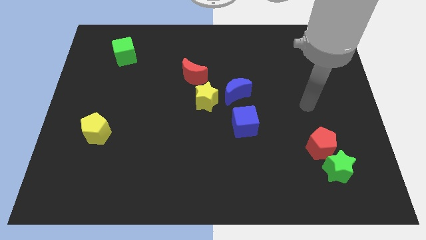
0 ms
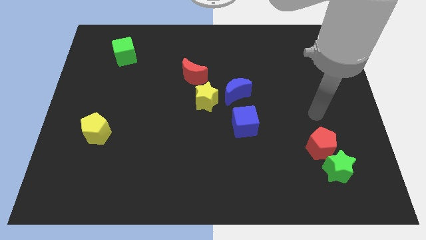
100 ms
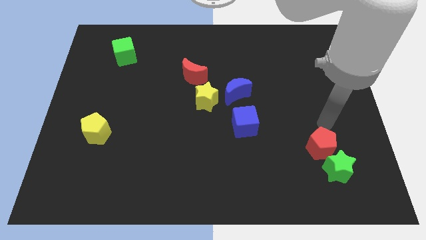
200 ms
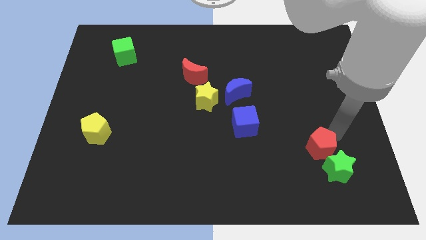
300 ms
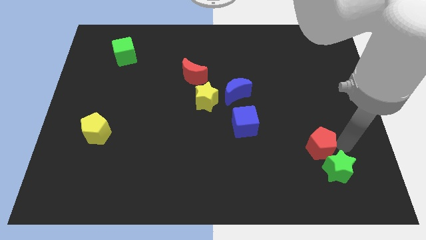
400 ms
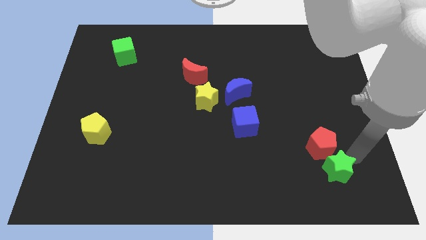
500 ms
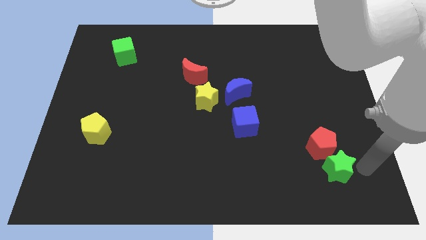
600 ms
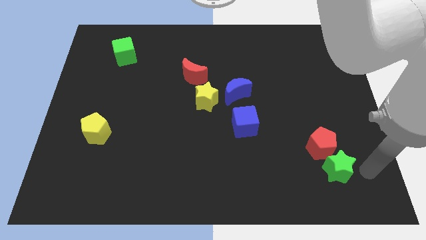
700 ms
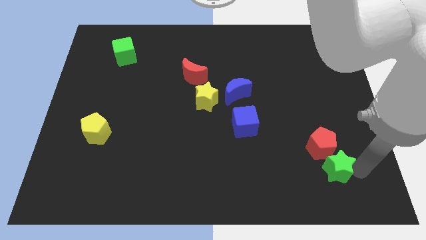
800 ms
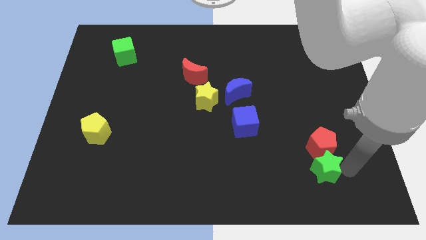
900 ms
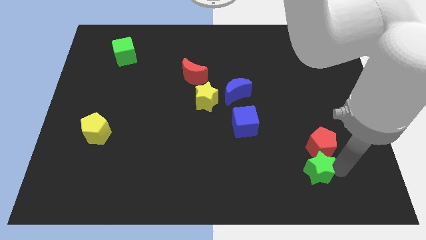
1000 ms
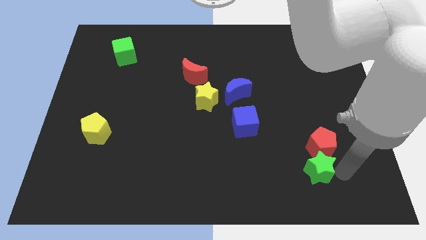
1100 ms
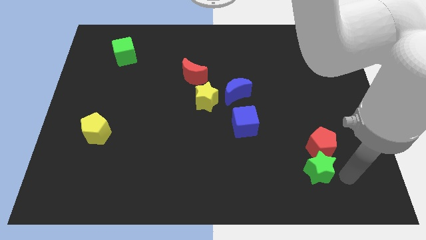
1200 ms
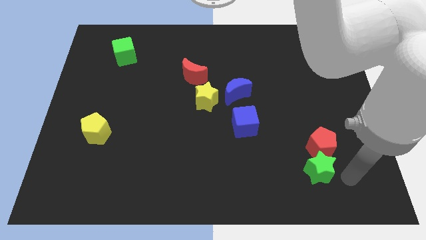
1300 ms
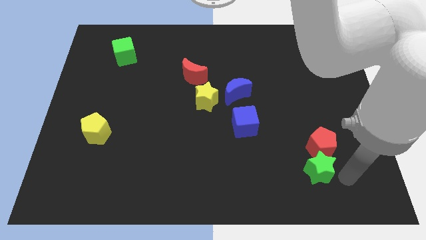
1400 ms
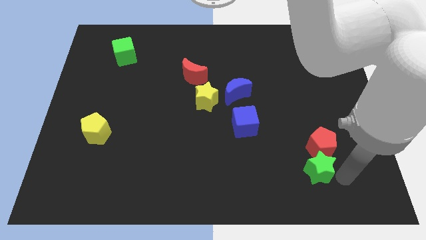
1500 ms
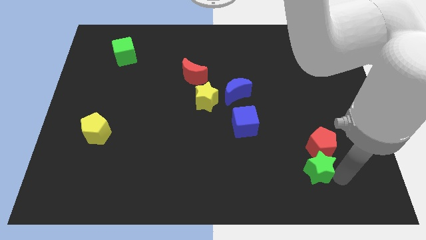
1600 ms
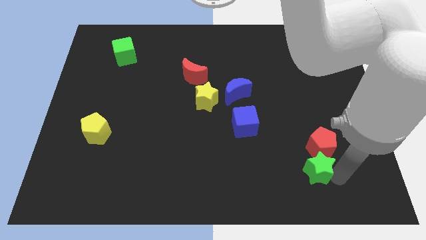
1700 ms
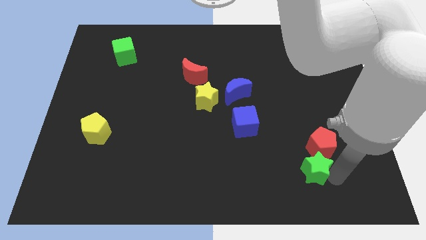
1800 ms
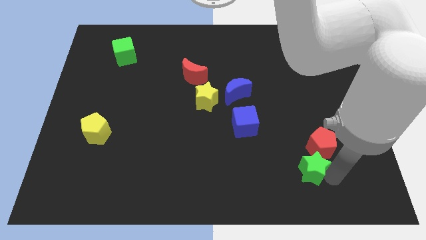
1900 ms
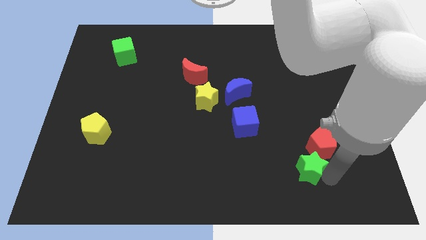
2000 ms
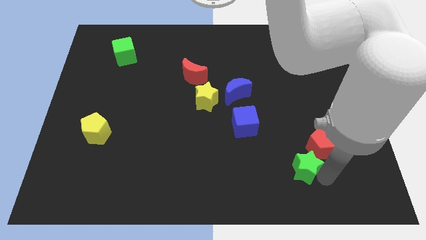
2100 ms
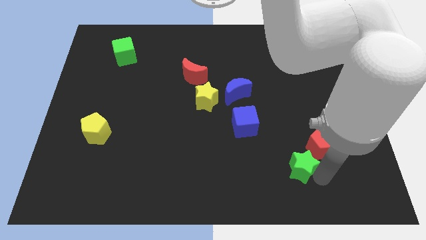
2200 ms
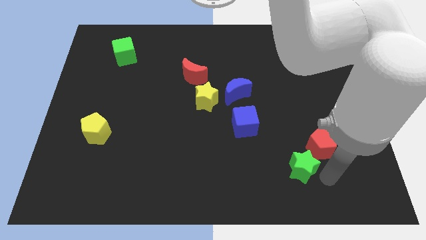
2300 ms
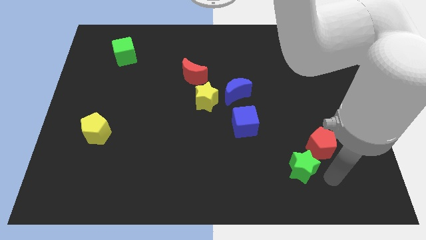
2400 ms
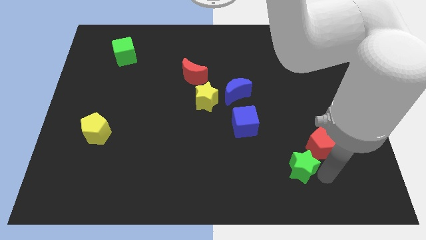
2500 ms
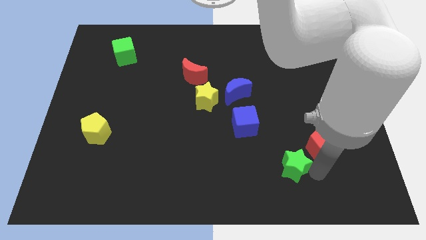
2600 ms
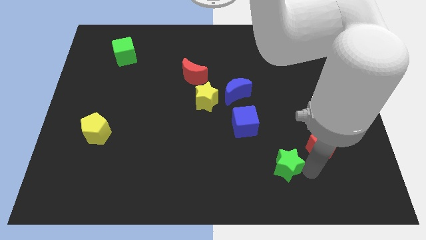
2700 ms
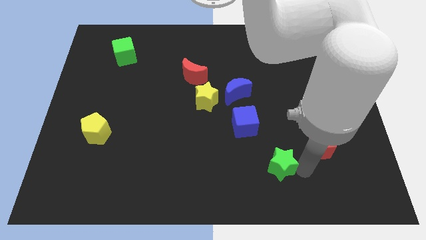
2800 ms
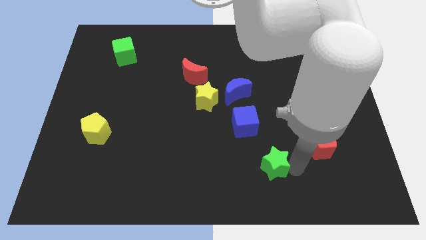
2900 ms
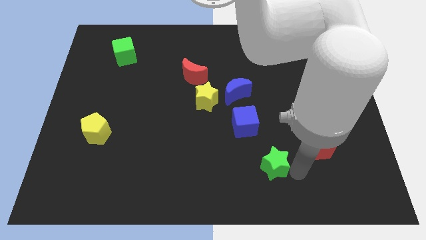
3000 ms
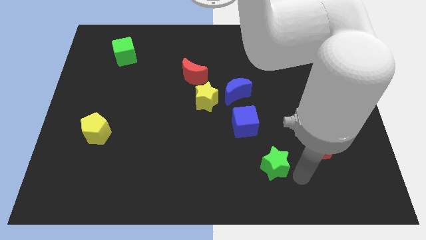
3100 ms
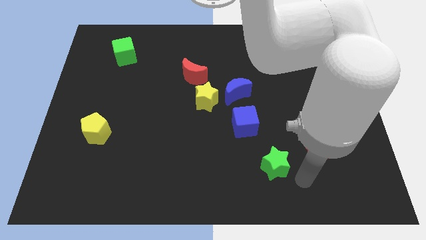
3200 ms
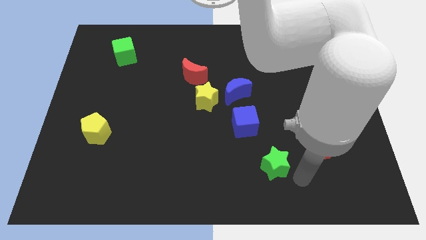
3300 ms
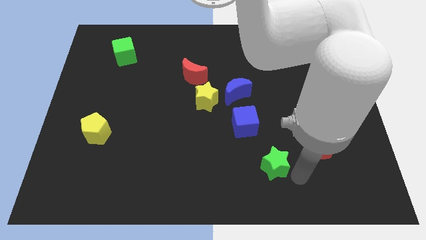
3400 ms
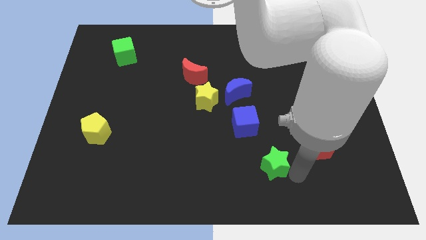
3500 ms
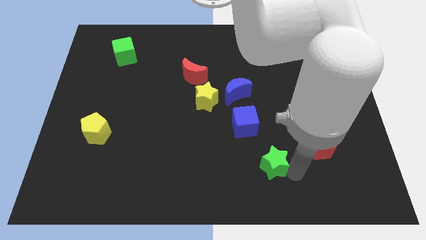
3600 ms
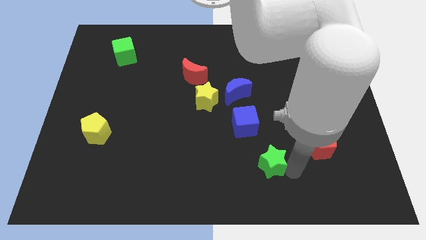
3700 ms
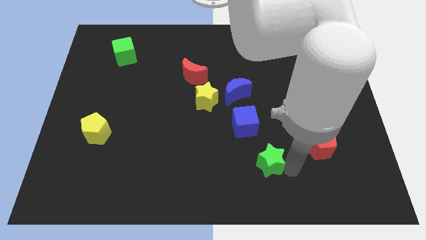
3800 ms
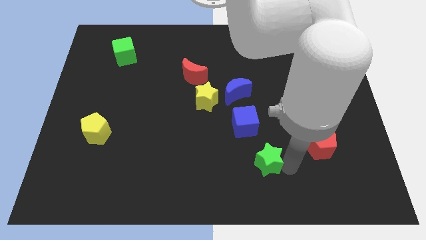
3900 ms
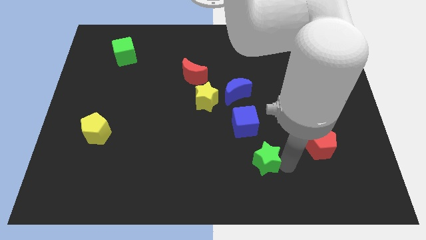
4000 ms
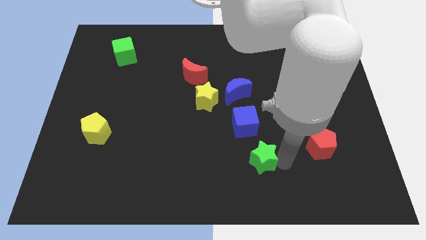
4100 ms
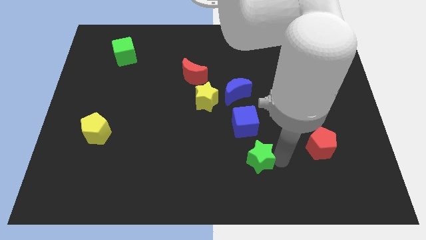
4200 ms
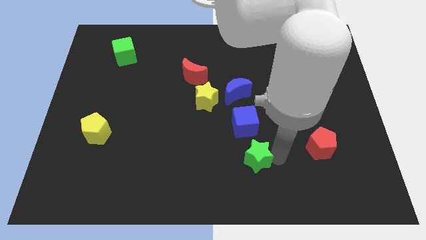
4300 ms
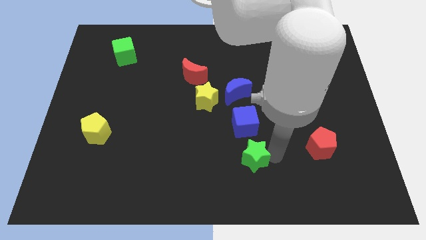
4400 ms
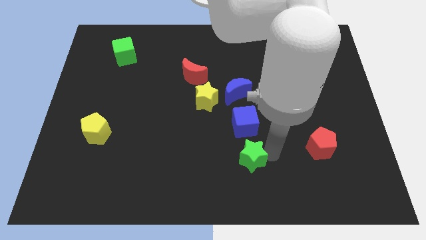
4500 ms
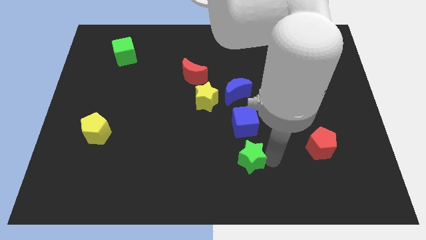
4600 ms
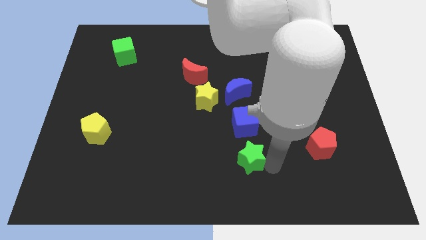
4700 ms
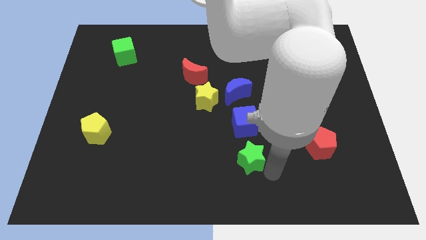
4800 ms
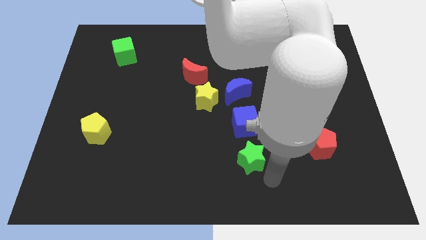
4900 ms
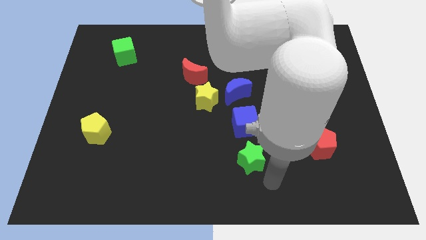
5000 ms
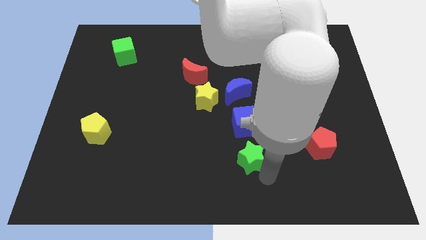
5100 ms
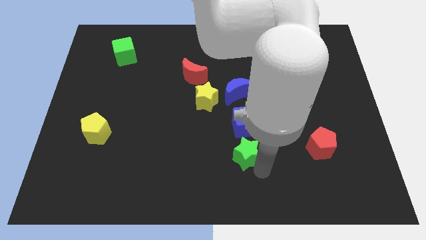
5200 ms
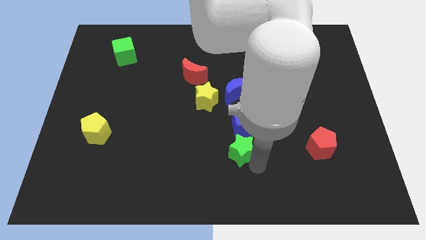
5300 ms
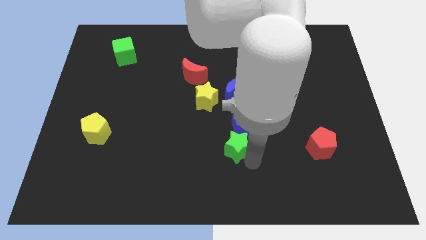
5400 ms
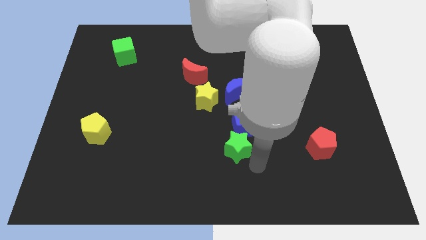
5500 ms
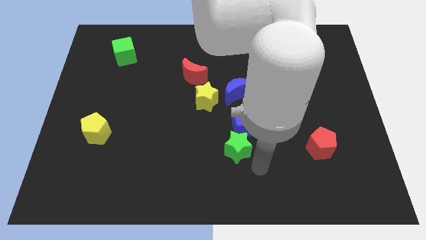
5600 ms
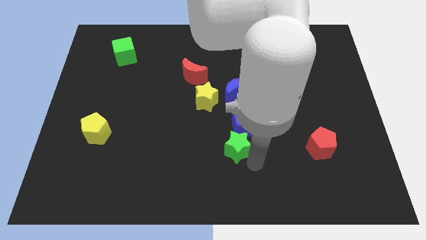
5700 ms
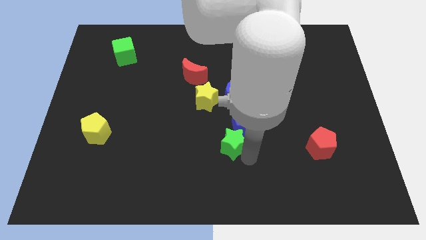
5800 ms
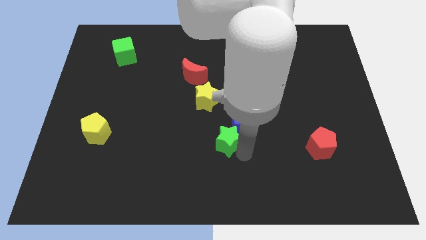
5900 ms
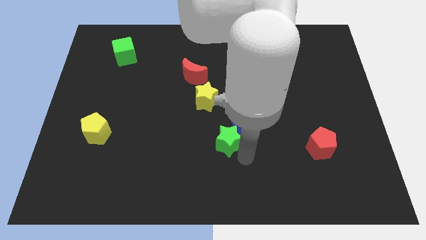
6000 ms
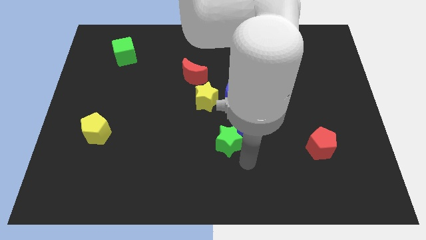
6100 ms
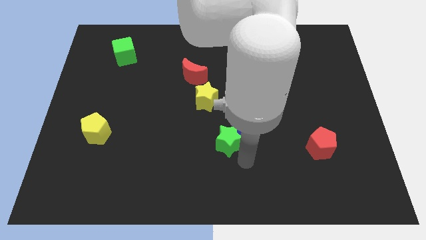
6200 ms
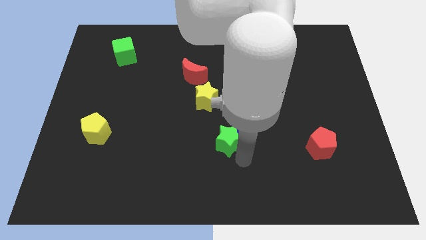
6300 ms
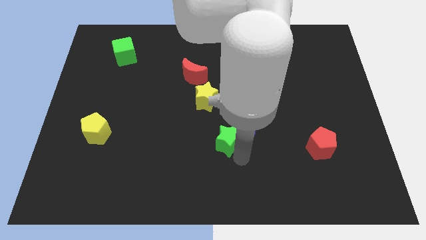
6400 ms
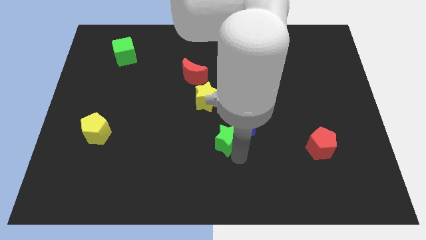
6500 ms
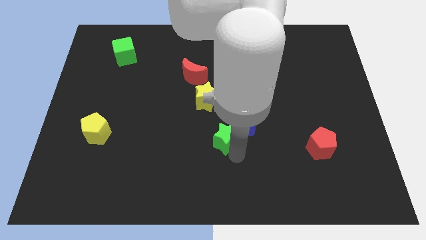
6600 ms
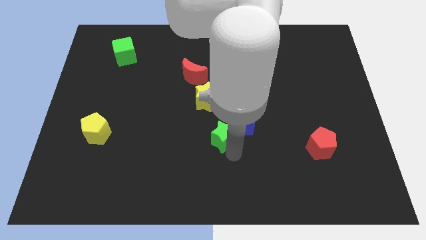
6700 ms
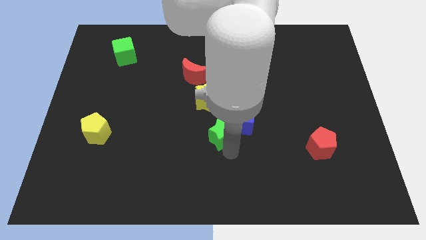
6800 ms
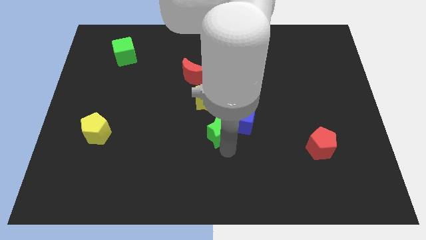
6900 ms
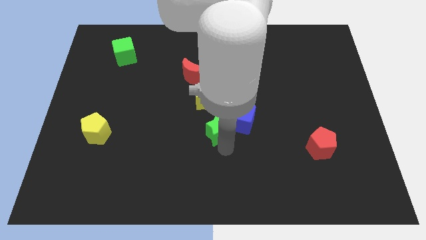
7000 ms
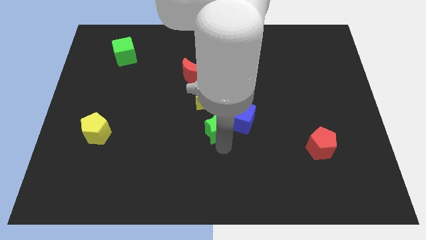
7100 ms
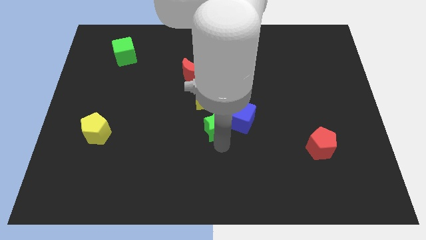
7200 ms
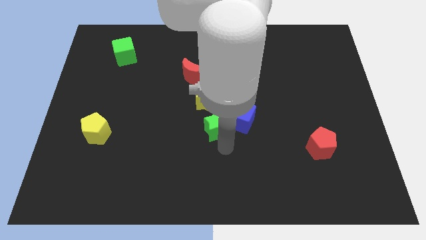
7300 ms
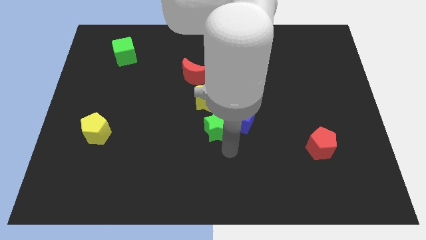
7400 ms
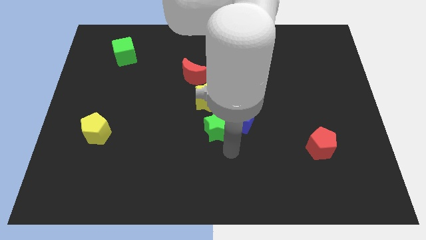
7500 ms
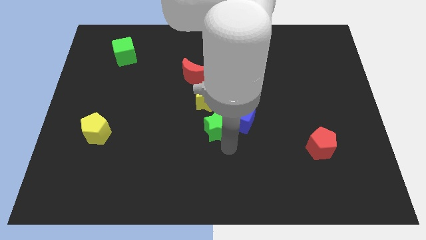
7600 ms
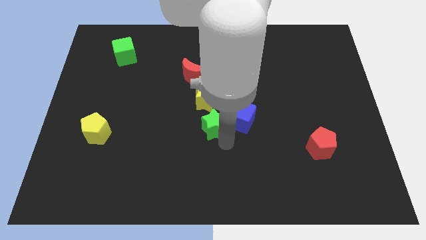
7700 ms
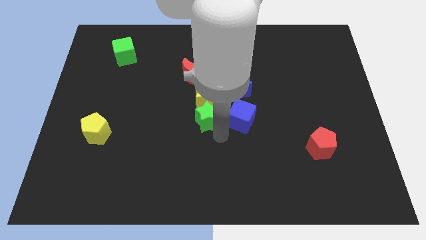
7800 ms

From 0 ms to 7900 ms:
push the green star close to the yellow star
